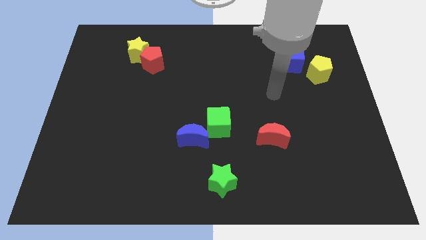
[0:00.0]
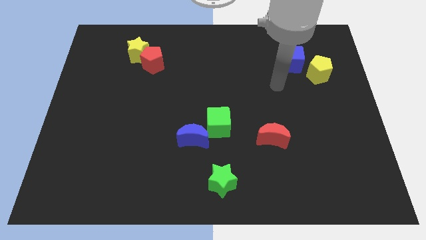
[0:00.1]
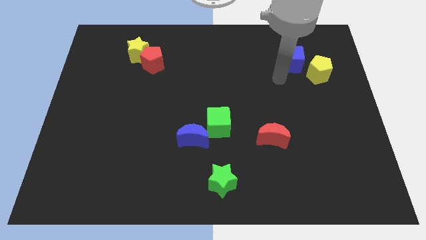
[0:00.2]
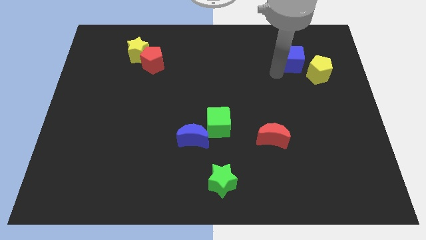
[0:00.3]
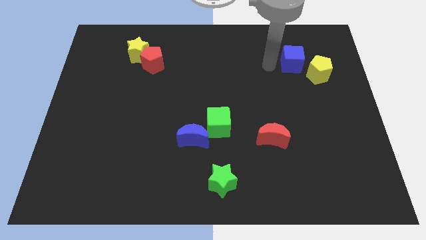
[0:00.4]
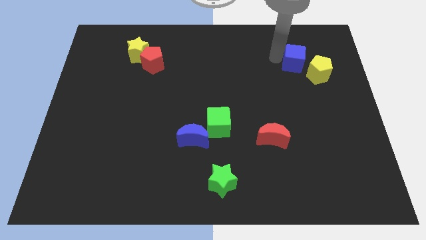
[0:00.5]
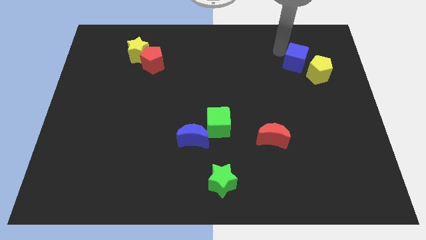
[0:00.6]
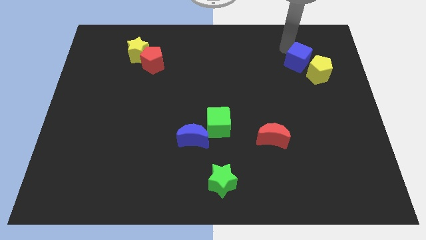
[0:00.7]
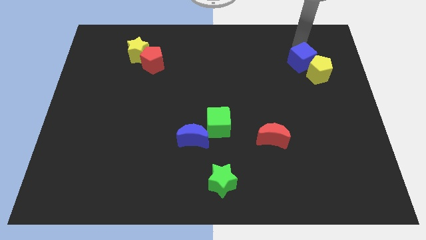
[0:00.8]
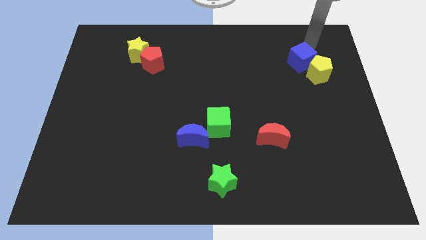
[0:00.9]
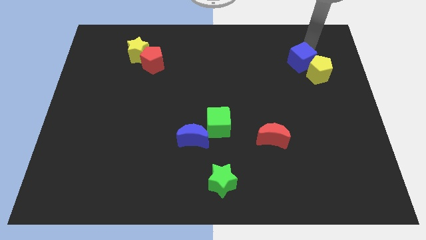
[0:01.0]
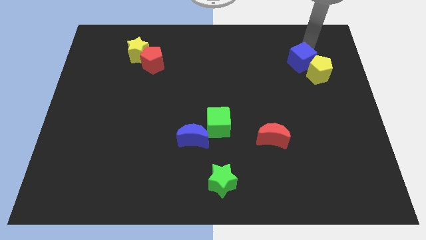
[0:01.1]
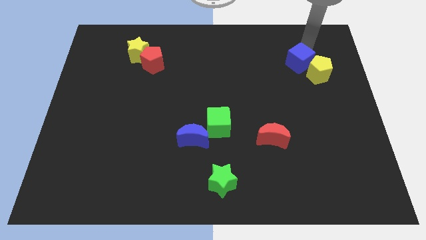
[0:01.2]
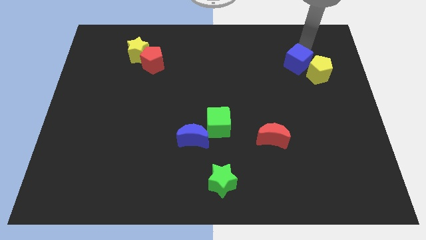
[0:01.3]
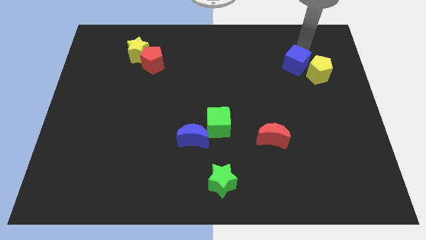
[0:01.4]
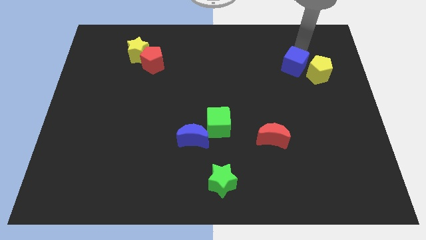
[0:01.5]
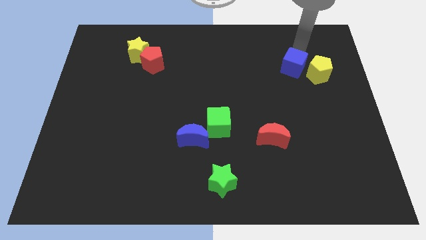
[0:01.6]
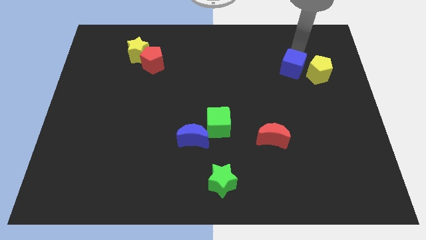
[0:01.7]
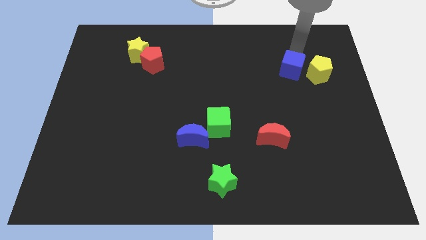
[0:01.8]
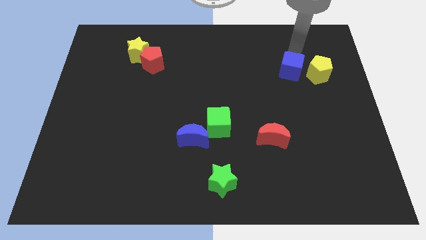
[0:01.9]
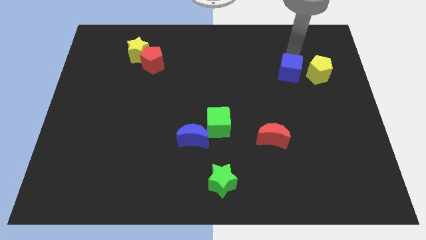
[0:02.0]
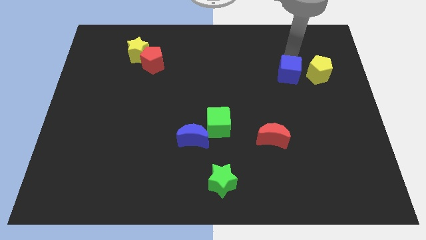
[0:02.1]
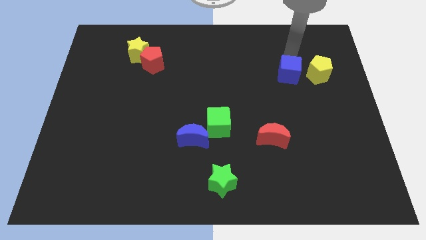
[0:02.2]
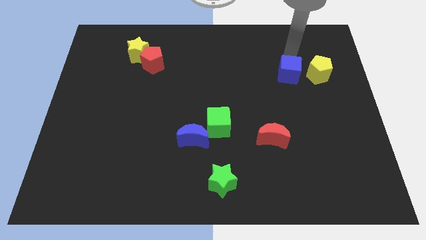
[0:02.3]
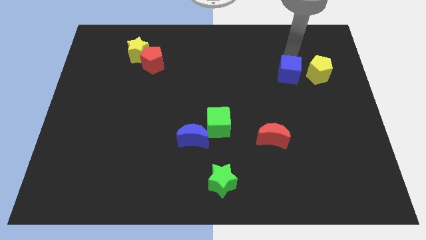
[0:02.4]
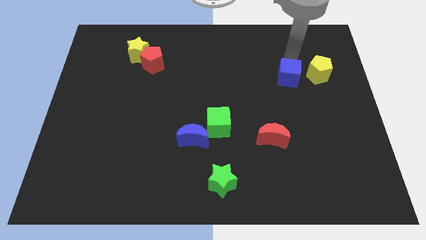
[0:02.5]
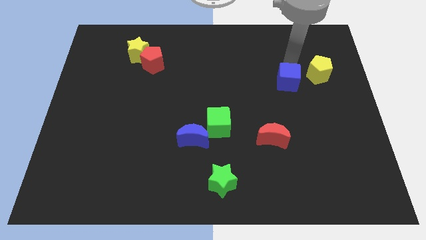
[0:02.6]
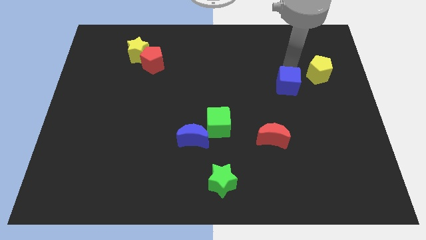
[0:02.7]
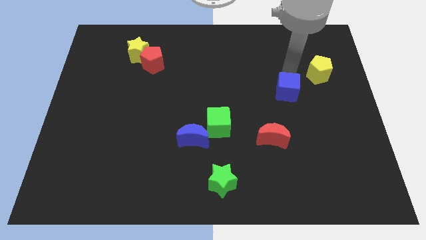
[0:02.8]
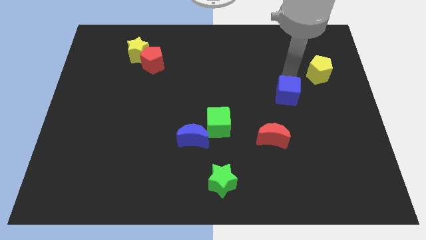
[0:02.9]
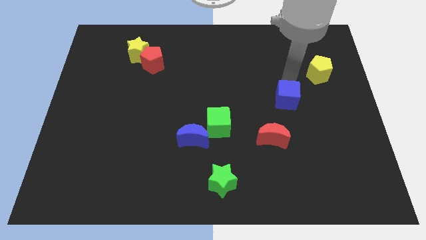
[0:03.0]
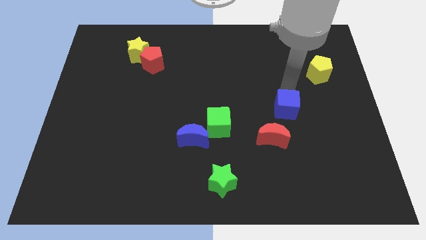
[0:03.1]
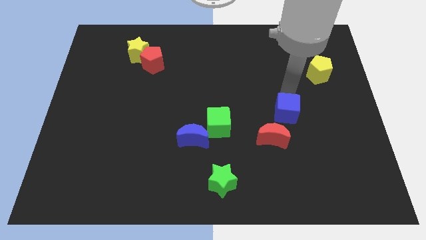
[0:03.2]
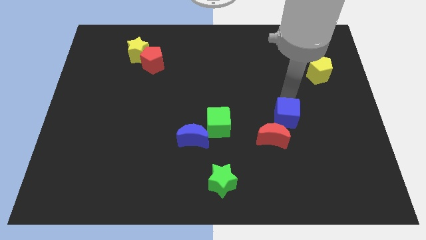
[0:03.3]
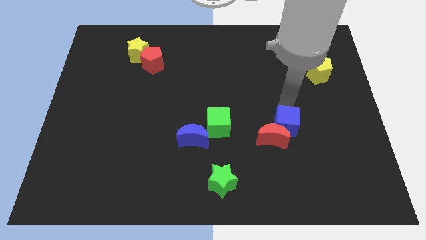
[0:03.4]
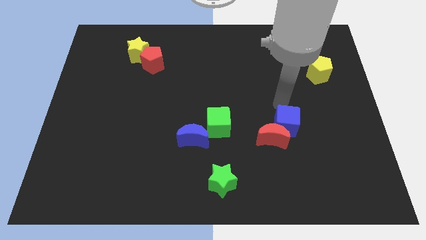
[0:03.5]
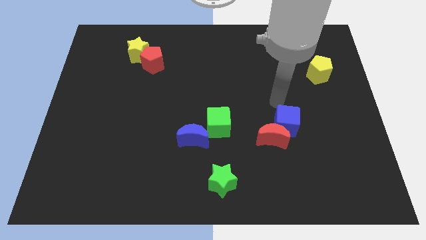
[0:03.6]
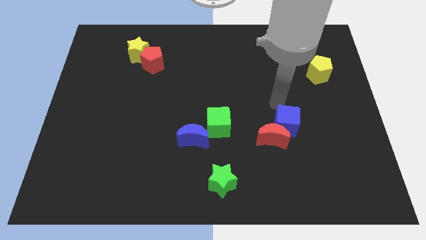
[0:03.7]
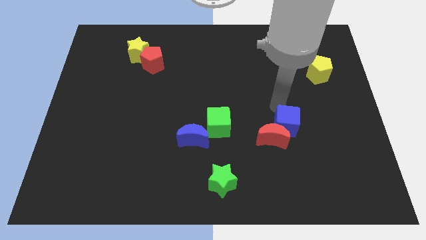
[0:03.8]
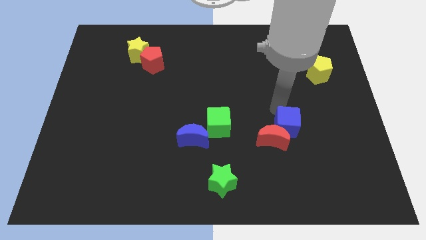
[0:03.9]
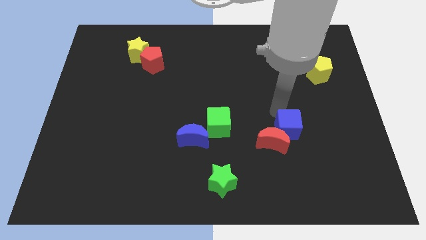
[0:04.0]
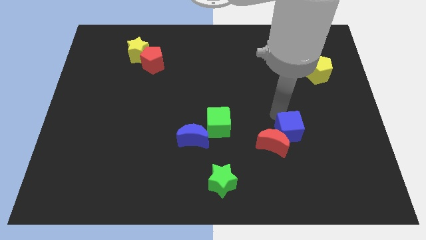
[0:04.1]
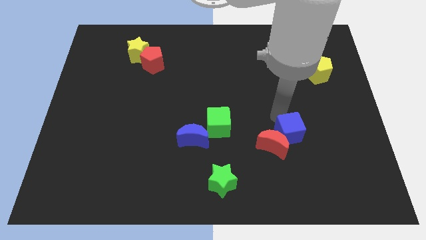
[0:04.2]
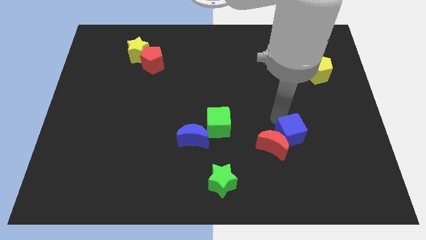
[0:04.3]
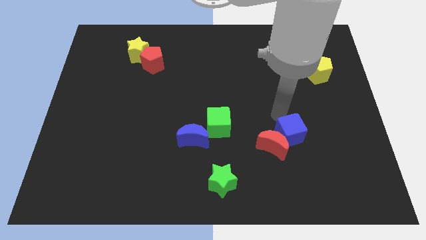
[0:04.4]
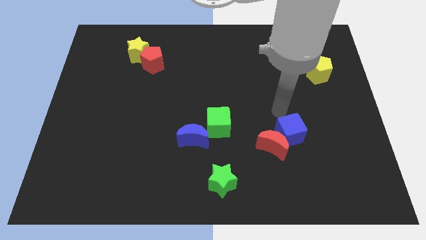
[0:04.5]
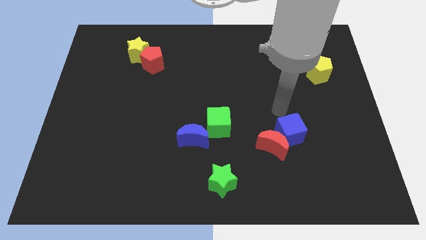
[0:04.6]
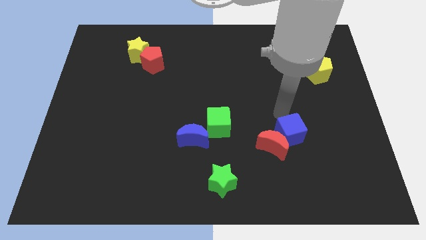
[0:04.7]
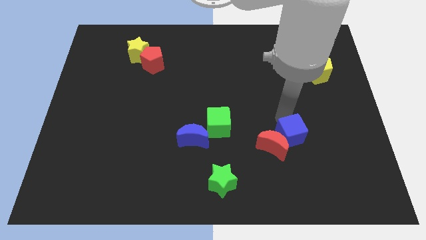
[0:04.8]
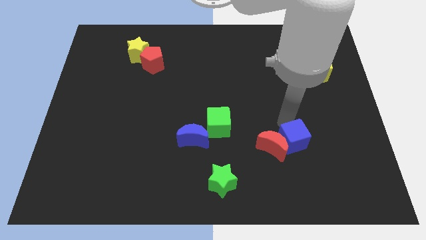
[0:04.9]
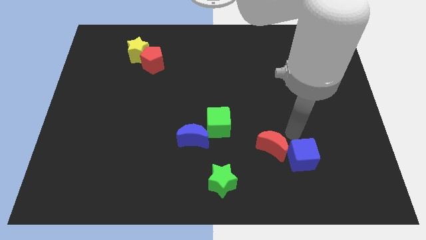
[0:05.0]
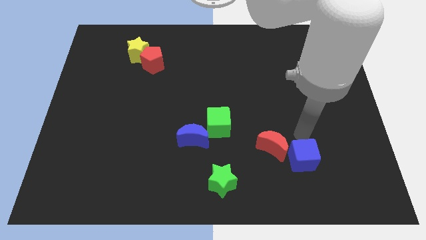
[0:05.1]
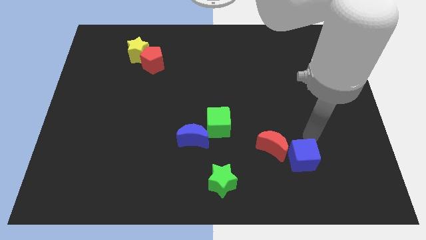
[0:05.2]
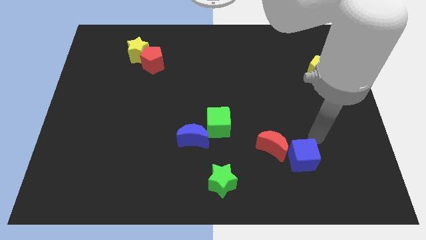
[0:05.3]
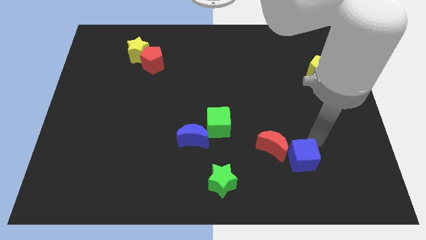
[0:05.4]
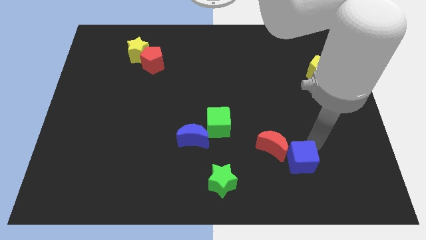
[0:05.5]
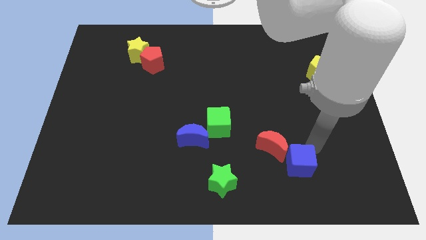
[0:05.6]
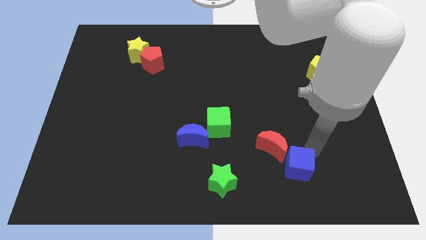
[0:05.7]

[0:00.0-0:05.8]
push the blue cube below the red moon

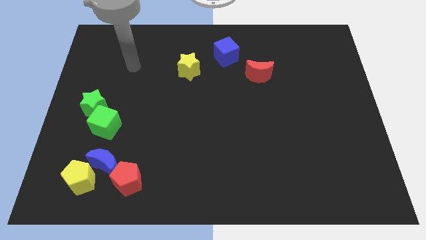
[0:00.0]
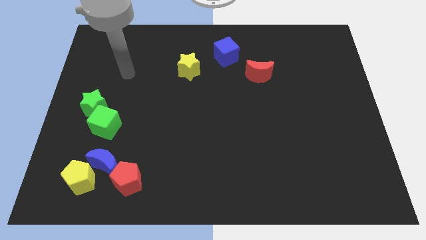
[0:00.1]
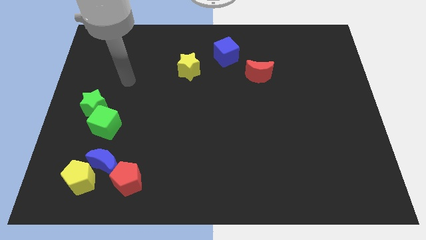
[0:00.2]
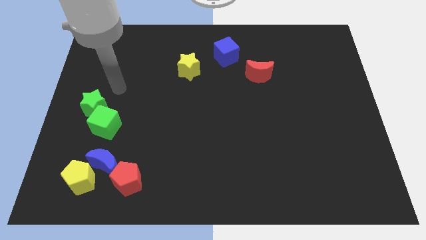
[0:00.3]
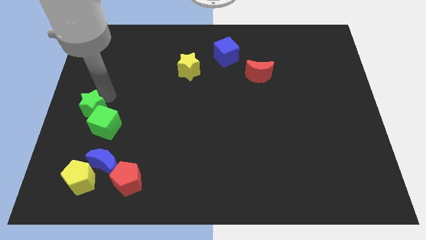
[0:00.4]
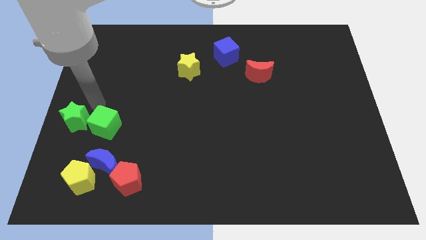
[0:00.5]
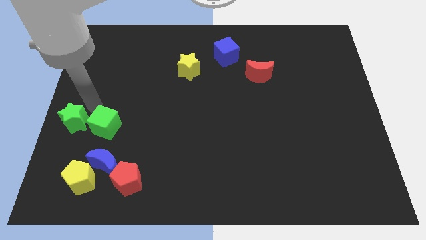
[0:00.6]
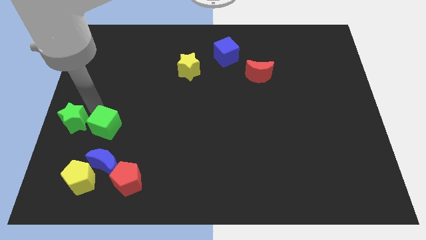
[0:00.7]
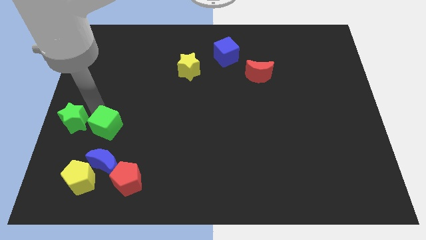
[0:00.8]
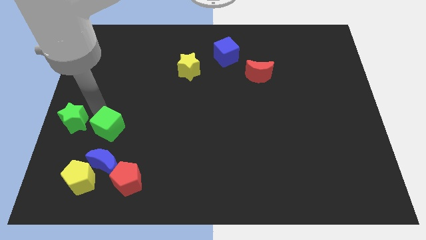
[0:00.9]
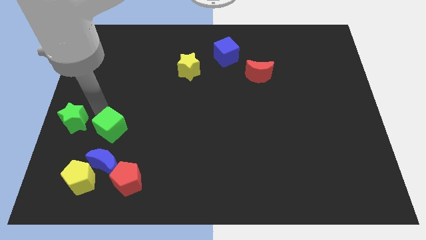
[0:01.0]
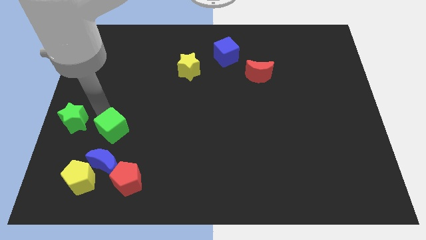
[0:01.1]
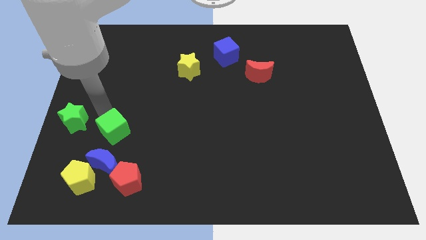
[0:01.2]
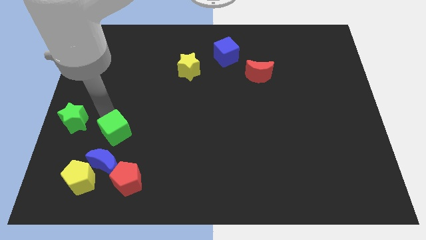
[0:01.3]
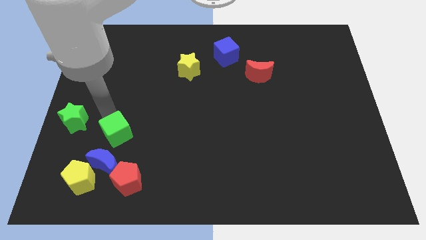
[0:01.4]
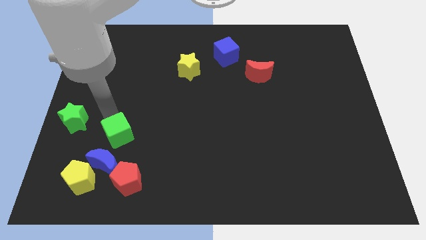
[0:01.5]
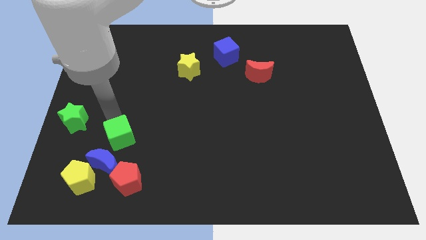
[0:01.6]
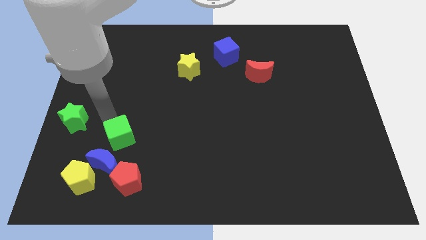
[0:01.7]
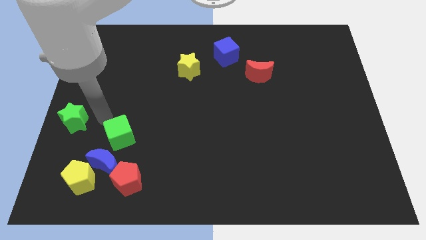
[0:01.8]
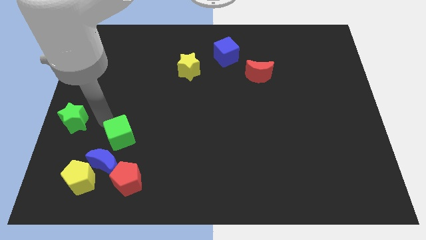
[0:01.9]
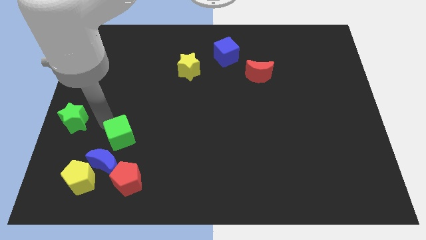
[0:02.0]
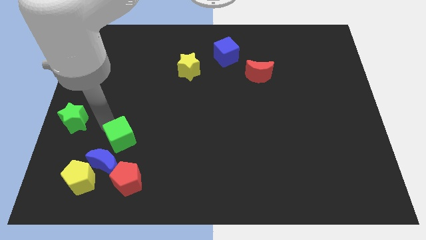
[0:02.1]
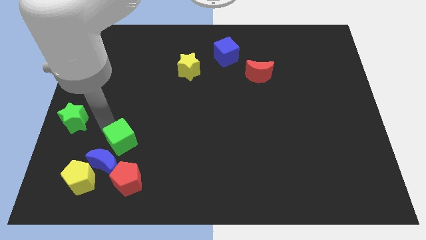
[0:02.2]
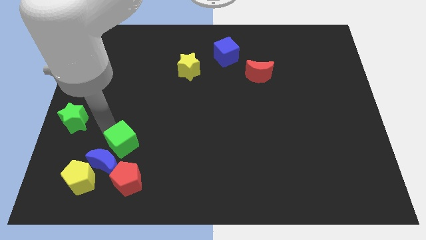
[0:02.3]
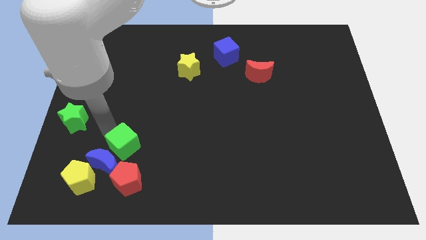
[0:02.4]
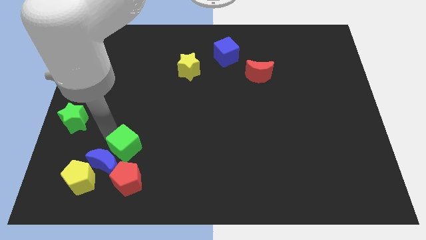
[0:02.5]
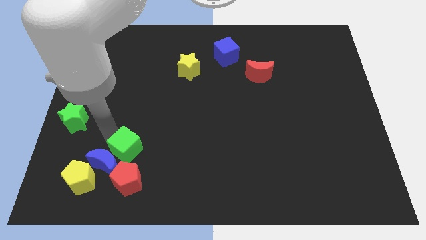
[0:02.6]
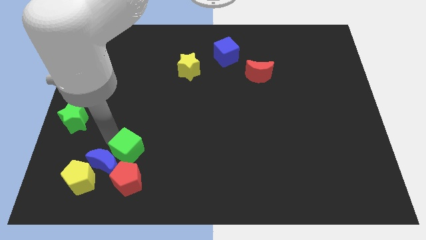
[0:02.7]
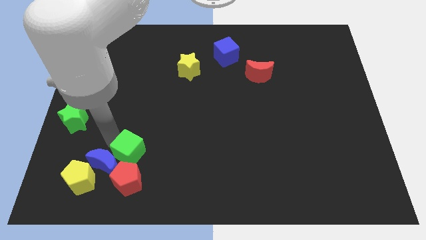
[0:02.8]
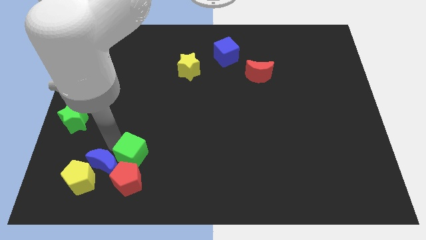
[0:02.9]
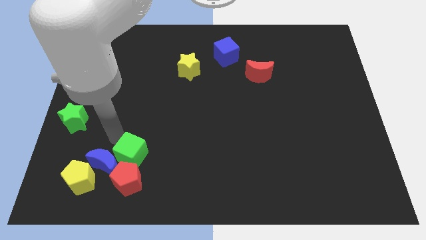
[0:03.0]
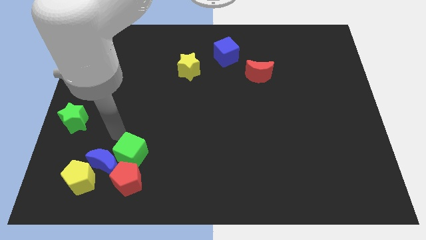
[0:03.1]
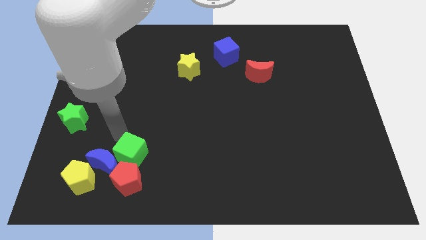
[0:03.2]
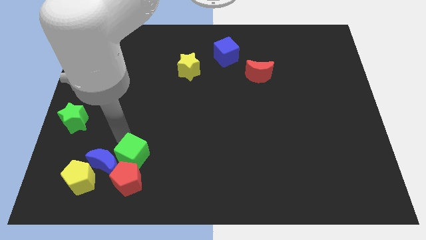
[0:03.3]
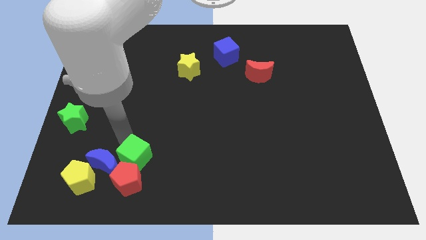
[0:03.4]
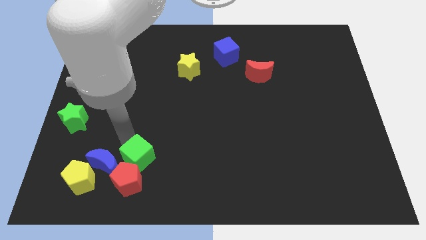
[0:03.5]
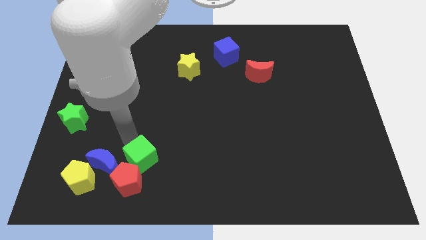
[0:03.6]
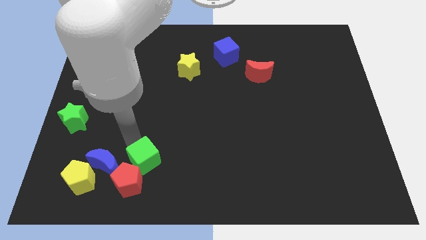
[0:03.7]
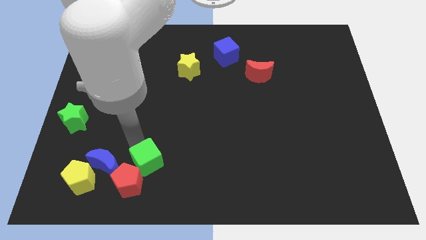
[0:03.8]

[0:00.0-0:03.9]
push the green cube right of the yellow pentagon
